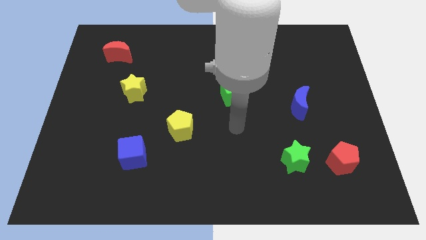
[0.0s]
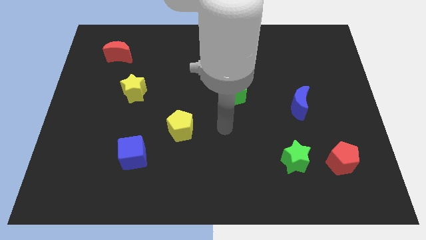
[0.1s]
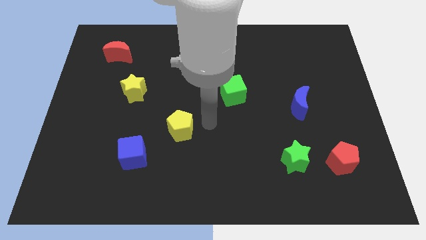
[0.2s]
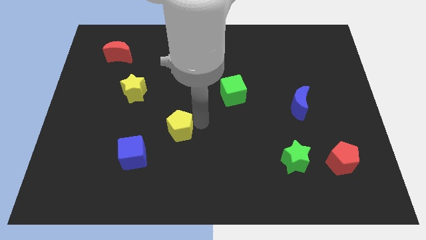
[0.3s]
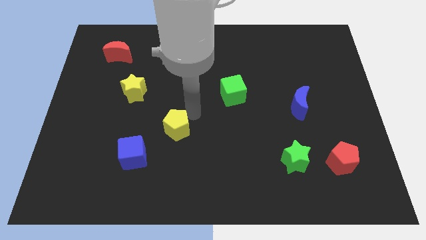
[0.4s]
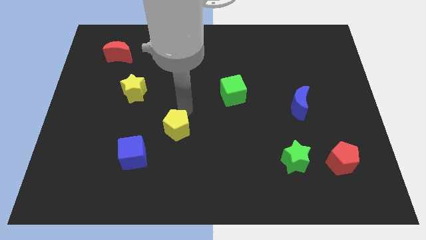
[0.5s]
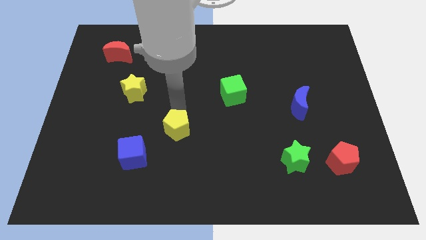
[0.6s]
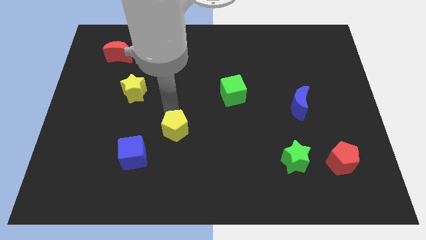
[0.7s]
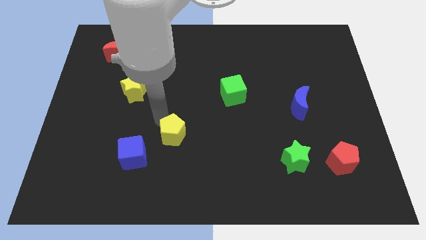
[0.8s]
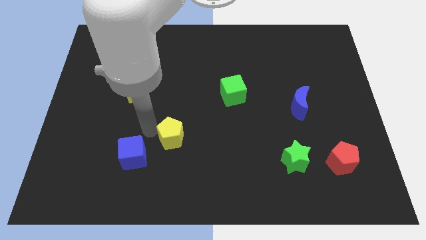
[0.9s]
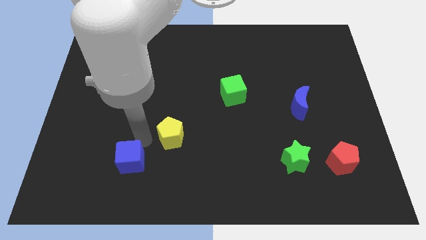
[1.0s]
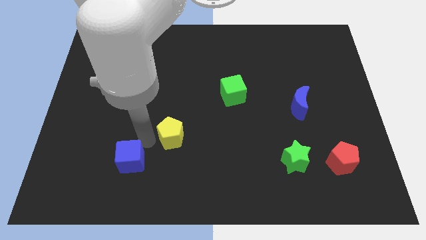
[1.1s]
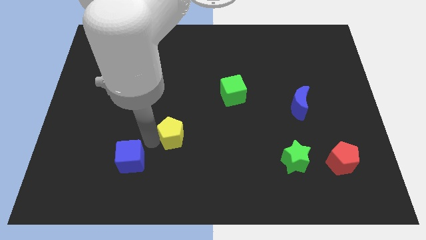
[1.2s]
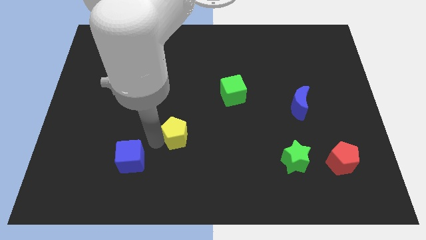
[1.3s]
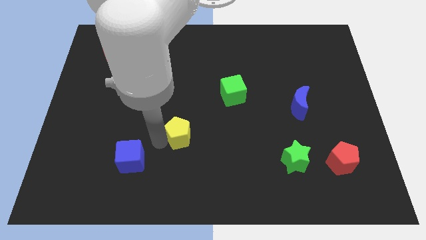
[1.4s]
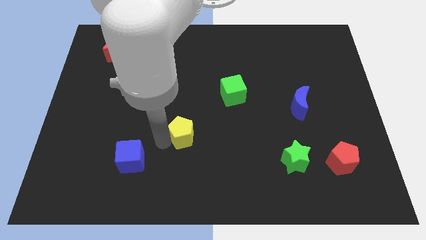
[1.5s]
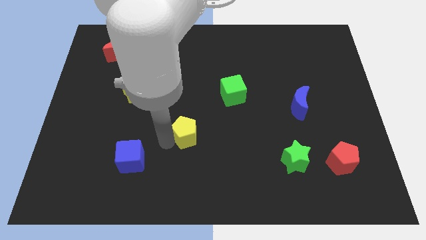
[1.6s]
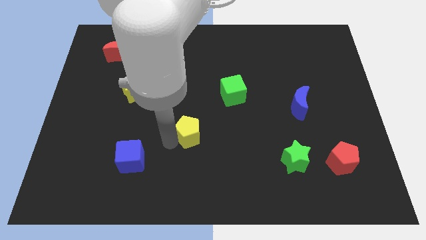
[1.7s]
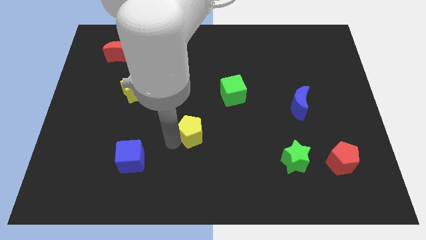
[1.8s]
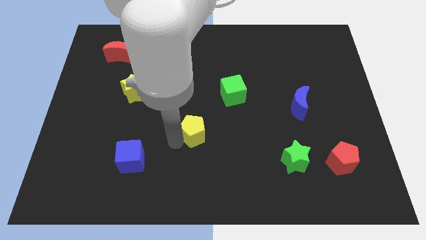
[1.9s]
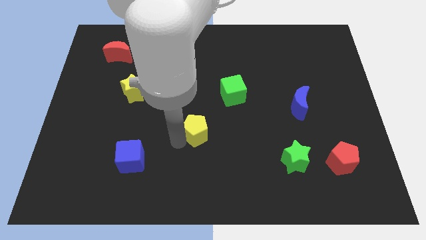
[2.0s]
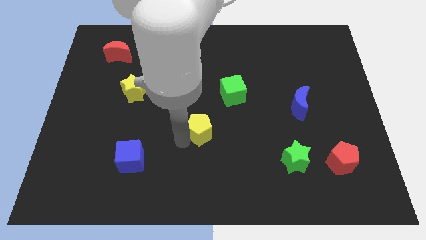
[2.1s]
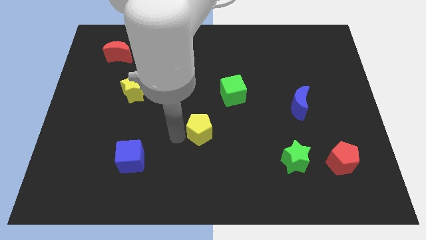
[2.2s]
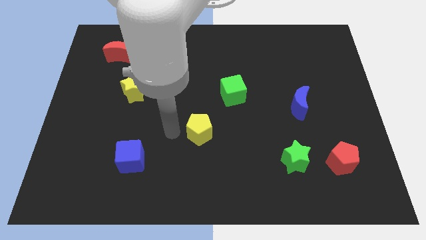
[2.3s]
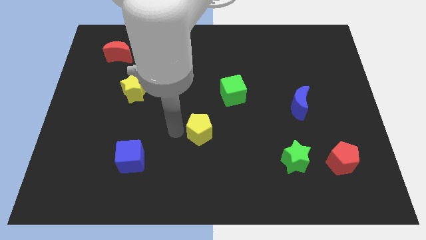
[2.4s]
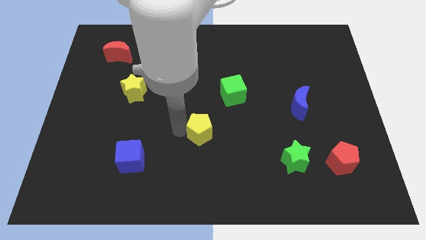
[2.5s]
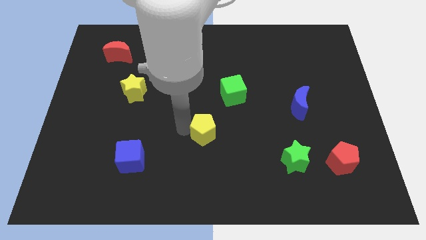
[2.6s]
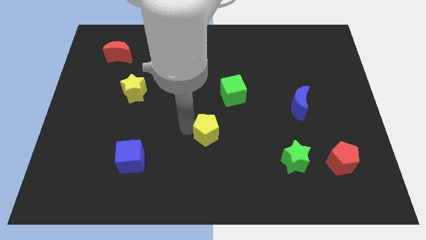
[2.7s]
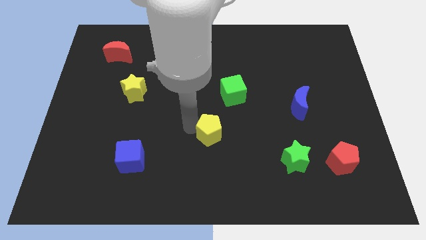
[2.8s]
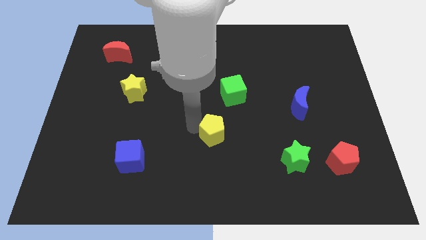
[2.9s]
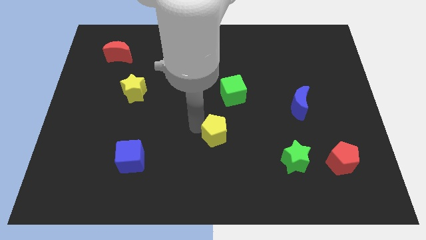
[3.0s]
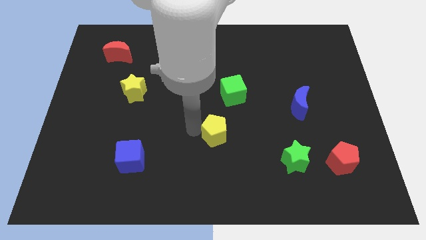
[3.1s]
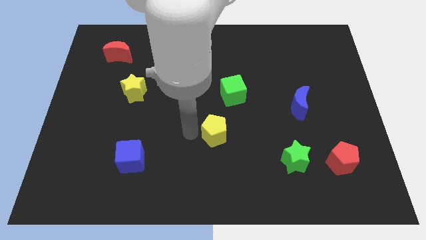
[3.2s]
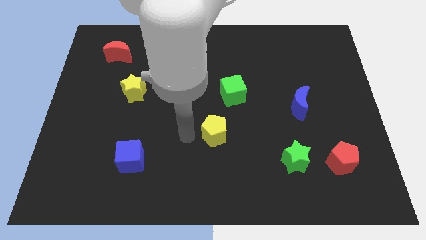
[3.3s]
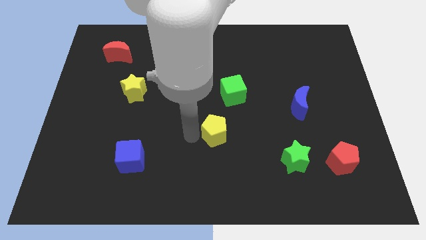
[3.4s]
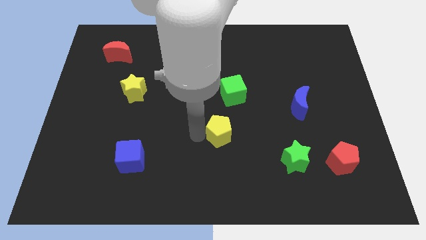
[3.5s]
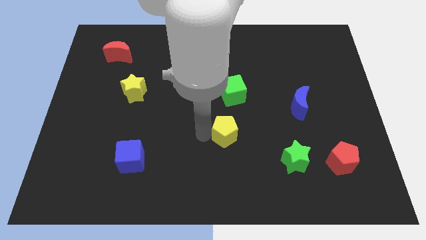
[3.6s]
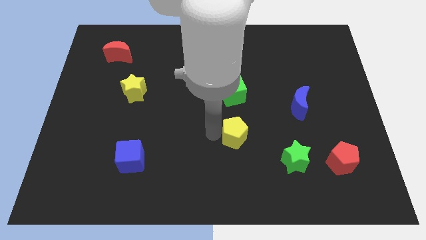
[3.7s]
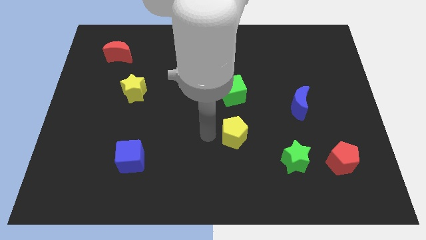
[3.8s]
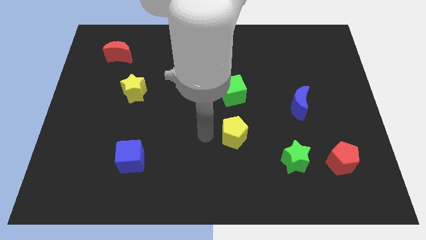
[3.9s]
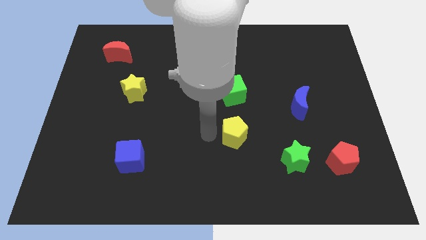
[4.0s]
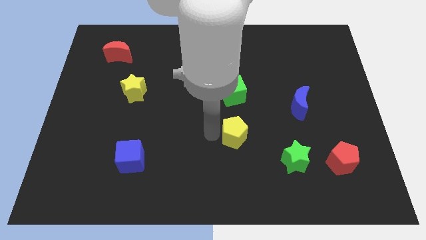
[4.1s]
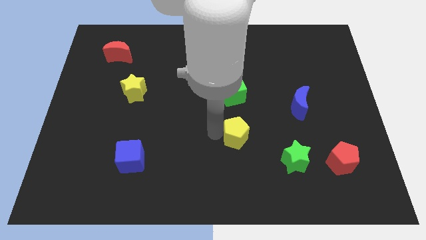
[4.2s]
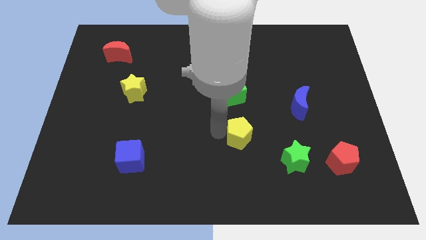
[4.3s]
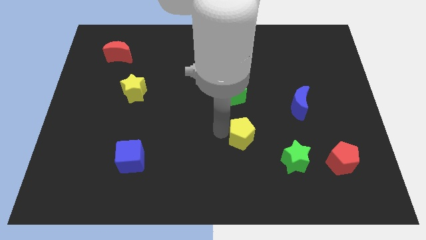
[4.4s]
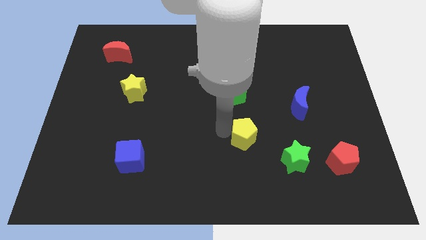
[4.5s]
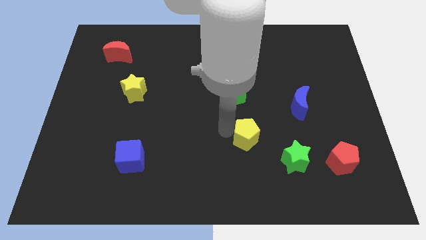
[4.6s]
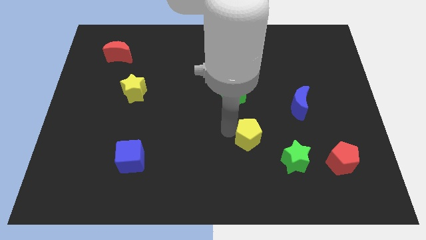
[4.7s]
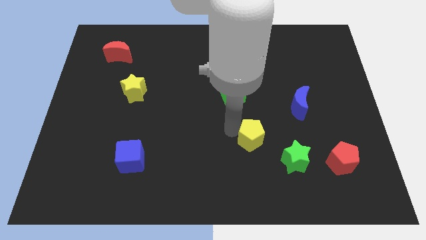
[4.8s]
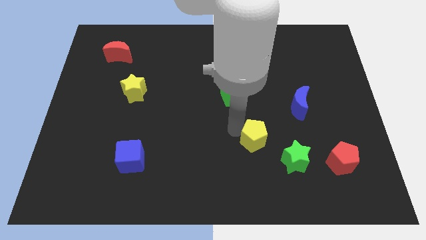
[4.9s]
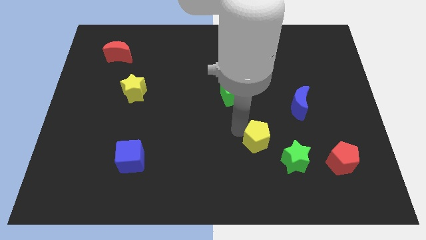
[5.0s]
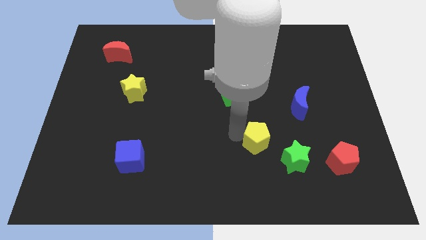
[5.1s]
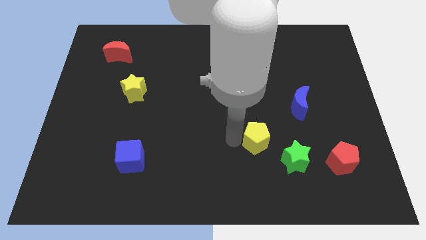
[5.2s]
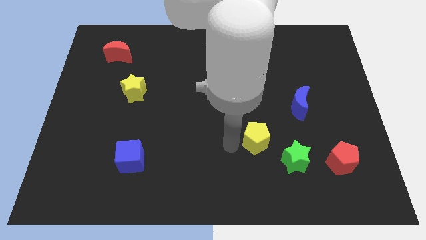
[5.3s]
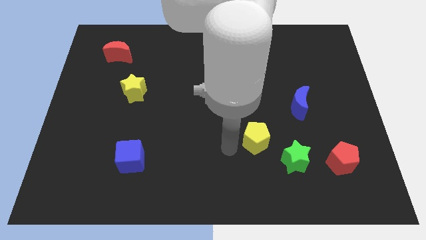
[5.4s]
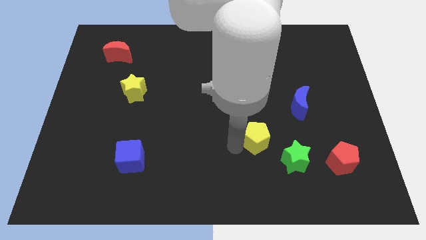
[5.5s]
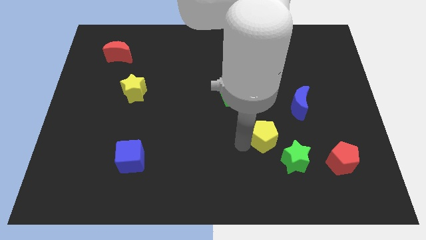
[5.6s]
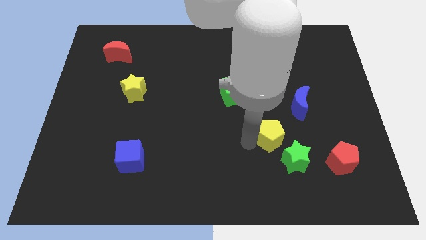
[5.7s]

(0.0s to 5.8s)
push the yellow pentagon to the right

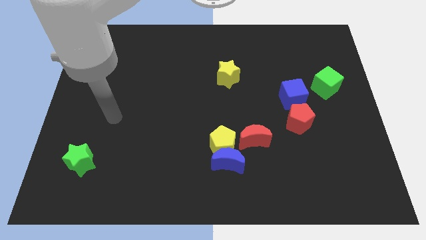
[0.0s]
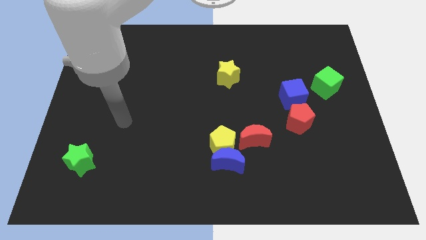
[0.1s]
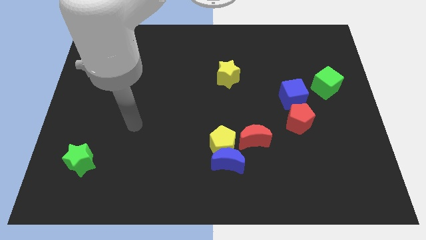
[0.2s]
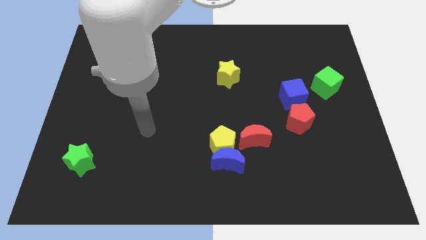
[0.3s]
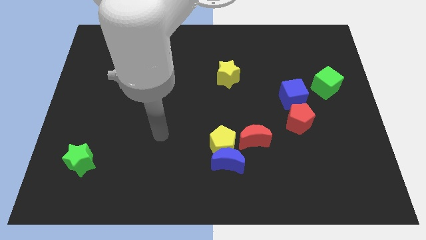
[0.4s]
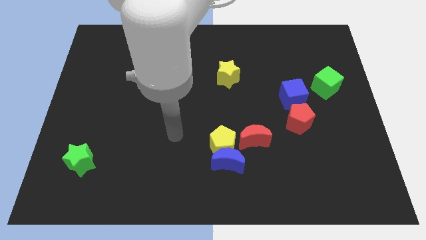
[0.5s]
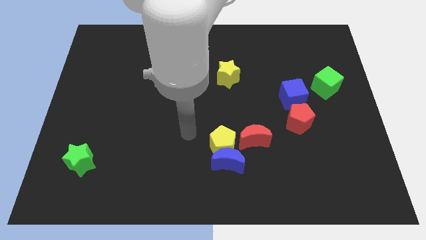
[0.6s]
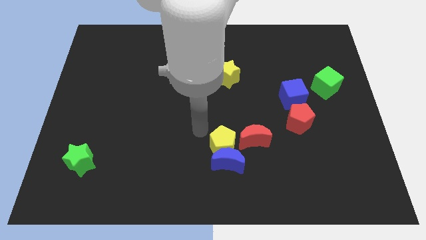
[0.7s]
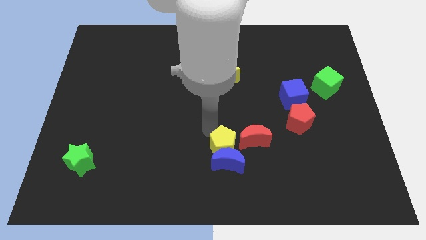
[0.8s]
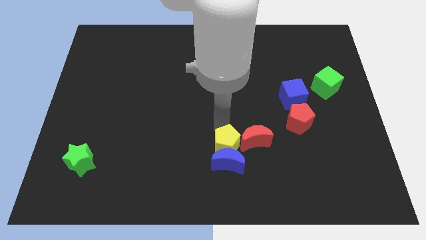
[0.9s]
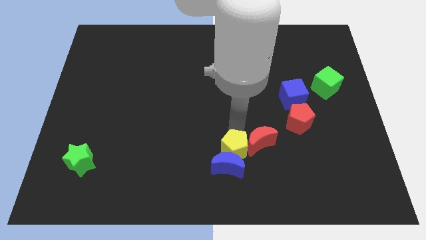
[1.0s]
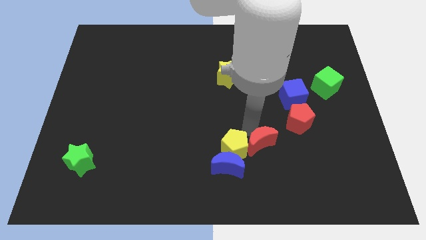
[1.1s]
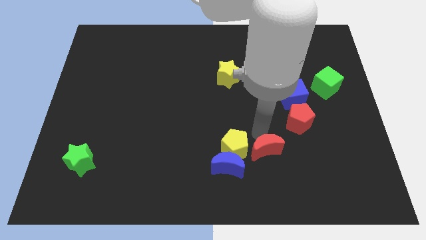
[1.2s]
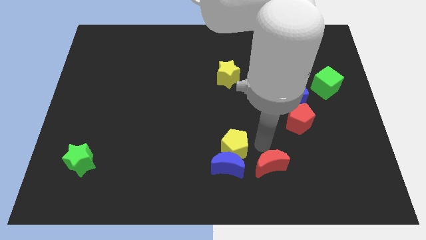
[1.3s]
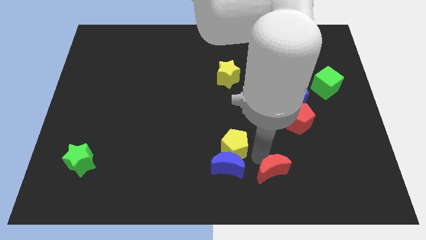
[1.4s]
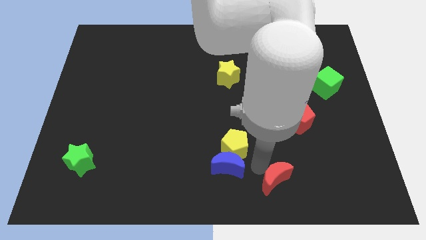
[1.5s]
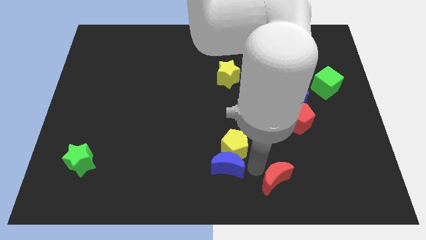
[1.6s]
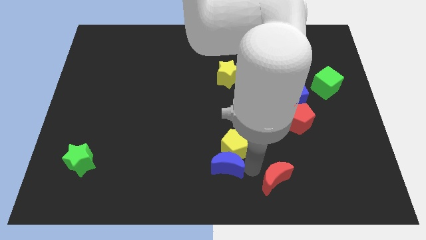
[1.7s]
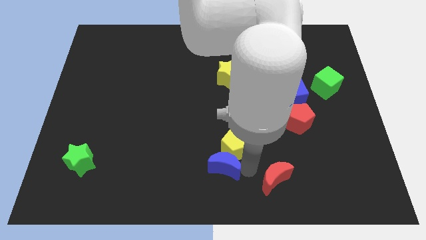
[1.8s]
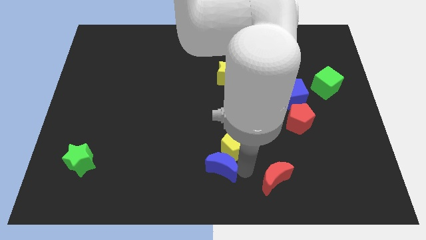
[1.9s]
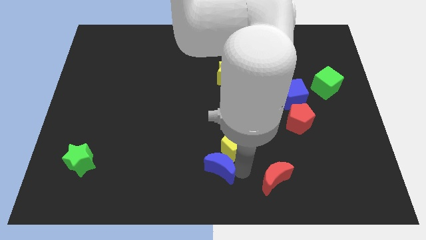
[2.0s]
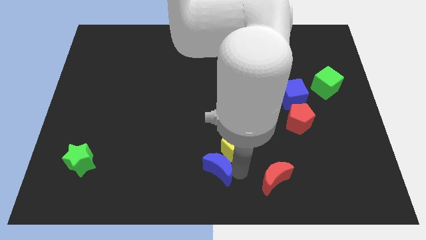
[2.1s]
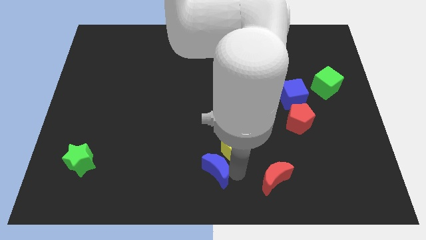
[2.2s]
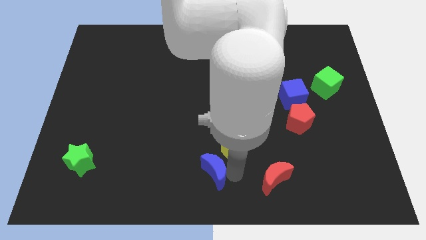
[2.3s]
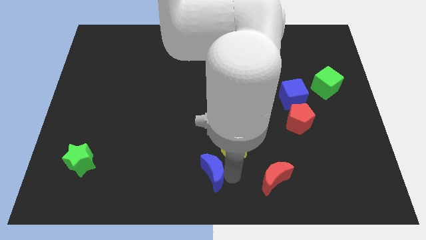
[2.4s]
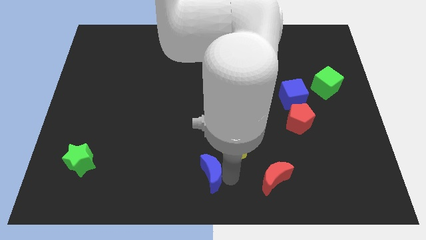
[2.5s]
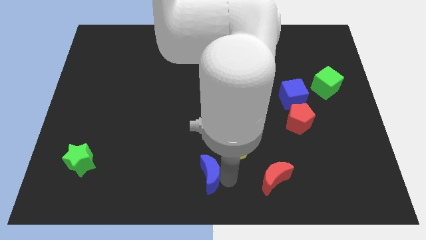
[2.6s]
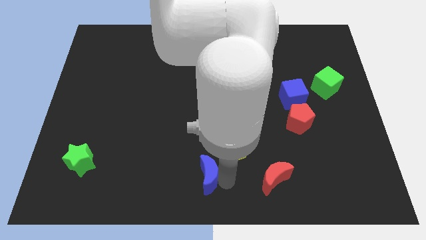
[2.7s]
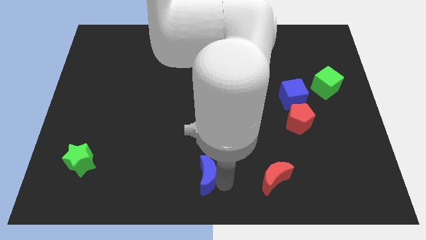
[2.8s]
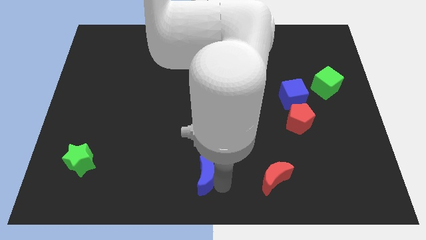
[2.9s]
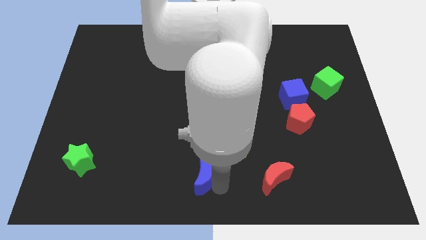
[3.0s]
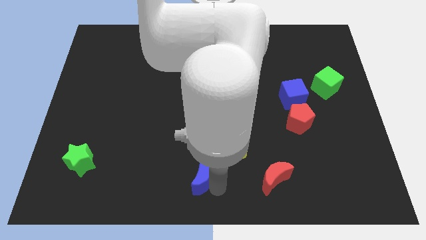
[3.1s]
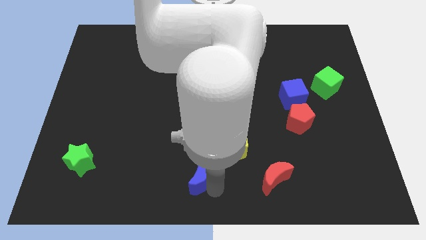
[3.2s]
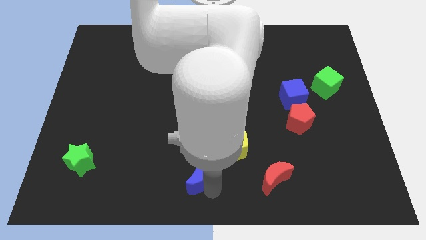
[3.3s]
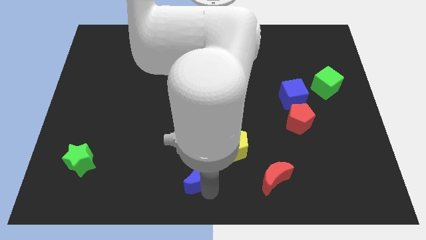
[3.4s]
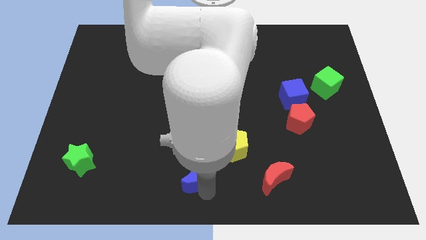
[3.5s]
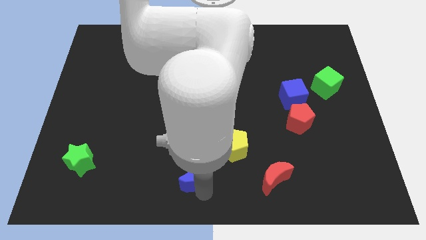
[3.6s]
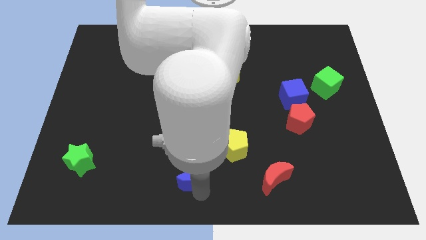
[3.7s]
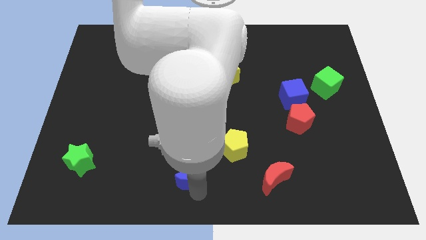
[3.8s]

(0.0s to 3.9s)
move the blue moon somewhat left
